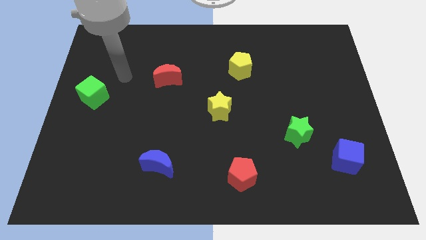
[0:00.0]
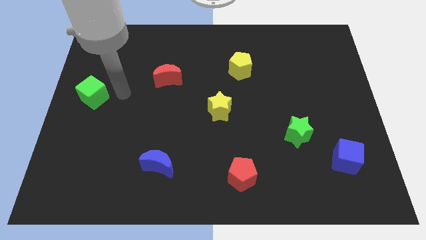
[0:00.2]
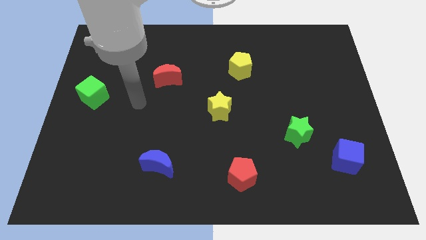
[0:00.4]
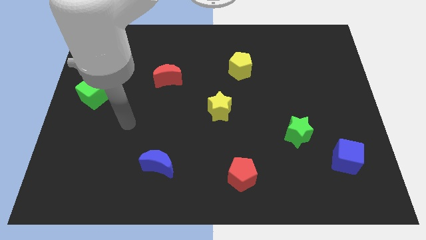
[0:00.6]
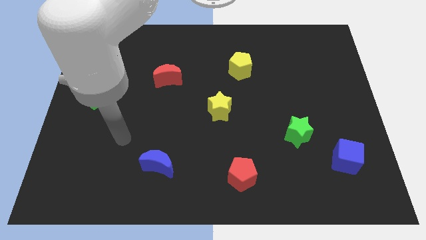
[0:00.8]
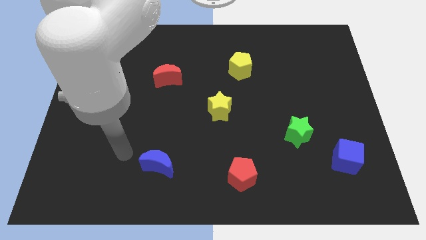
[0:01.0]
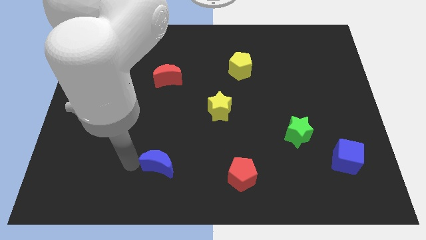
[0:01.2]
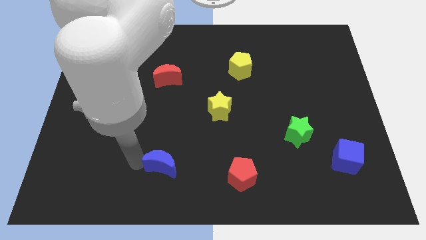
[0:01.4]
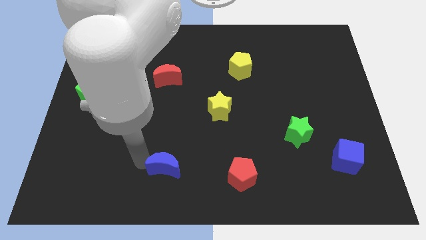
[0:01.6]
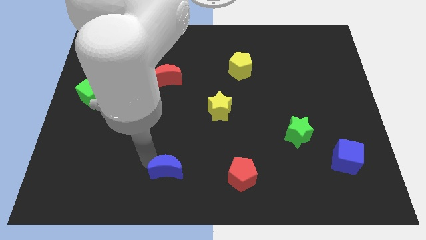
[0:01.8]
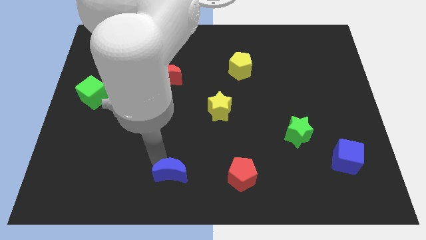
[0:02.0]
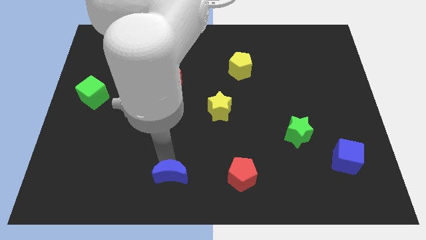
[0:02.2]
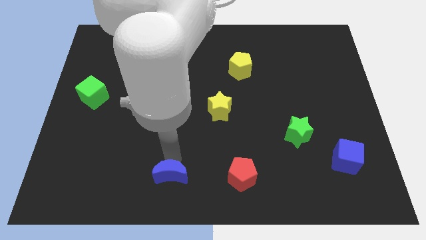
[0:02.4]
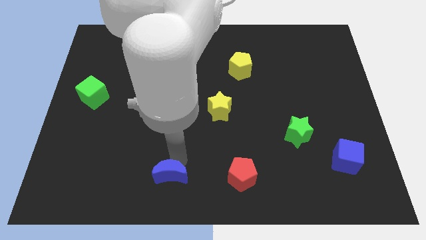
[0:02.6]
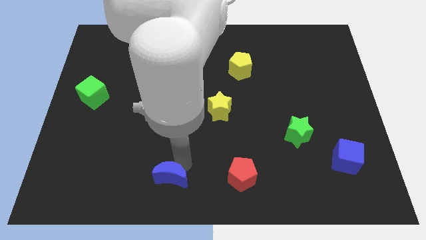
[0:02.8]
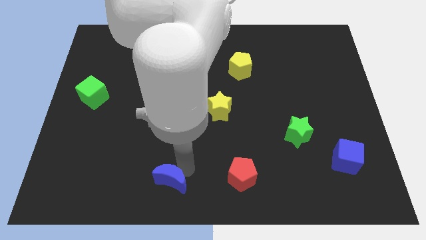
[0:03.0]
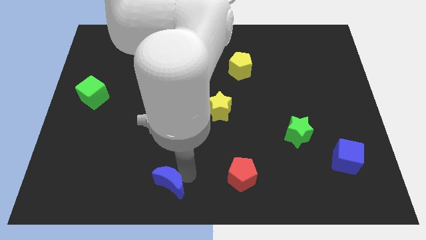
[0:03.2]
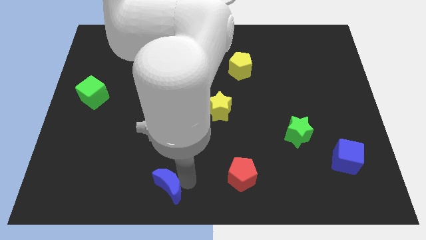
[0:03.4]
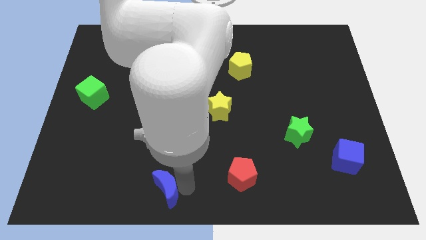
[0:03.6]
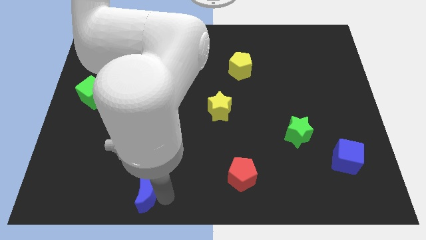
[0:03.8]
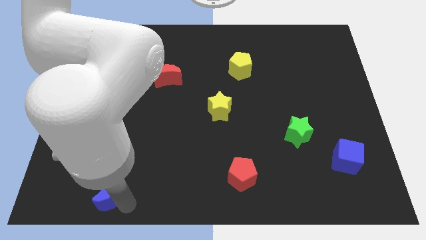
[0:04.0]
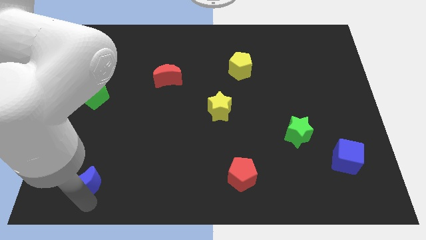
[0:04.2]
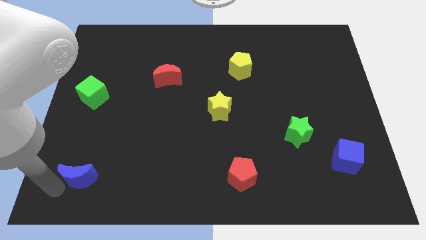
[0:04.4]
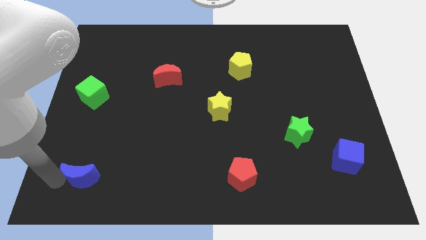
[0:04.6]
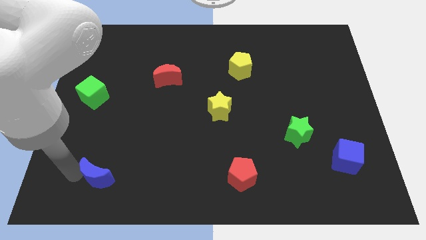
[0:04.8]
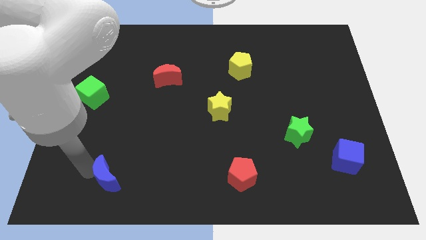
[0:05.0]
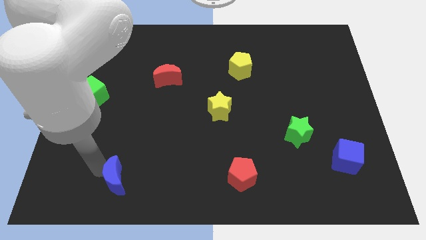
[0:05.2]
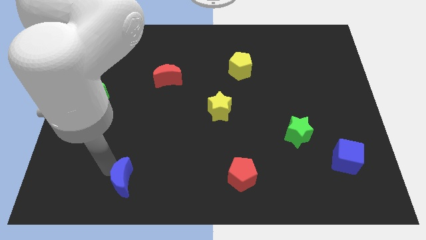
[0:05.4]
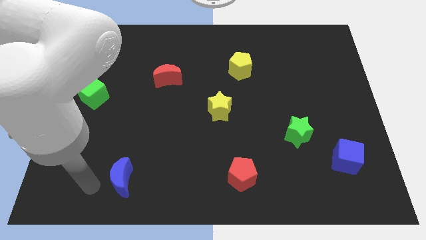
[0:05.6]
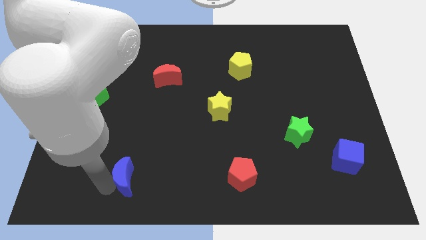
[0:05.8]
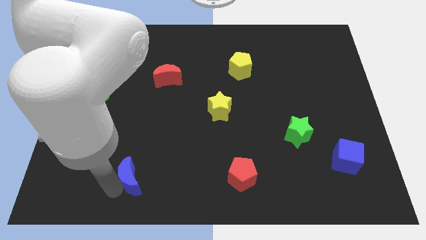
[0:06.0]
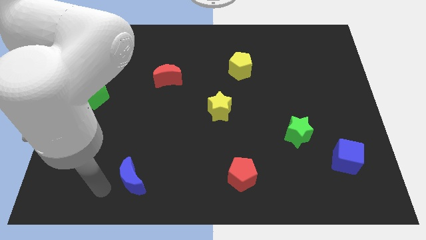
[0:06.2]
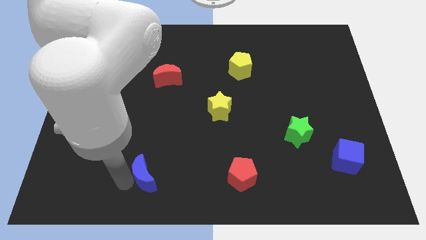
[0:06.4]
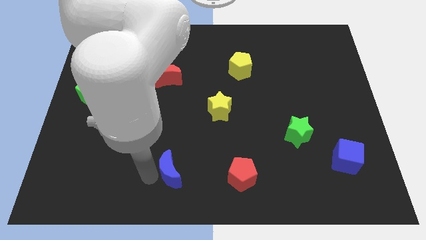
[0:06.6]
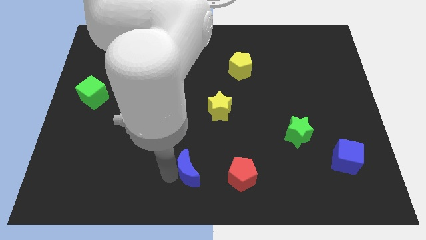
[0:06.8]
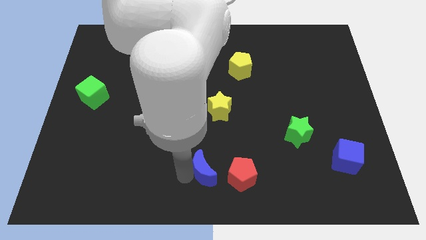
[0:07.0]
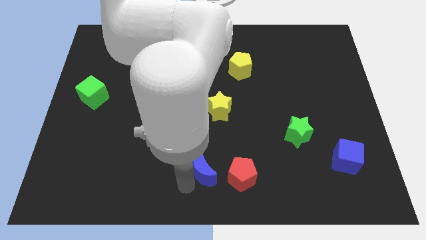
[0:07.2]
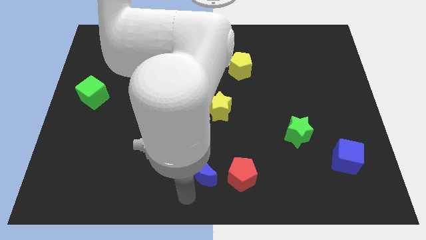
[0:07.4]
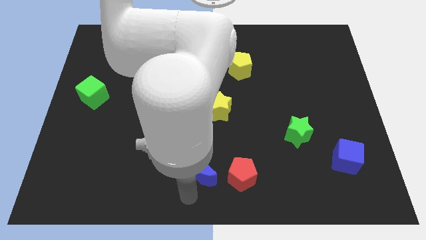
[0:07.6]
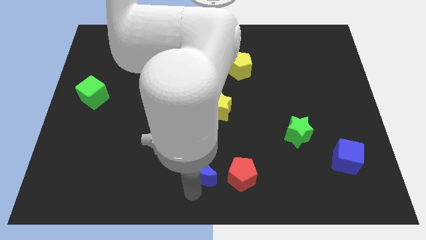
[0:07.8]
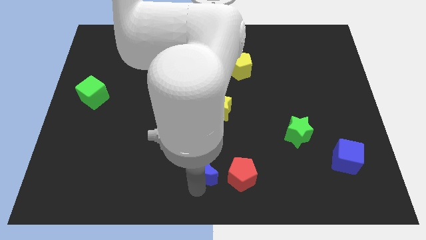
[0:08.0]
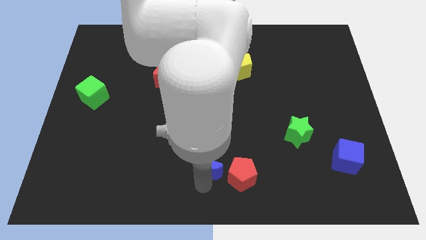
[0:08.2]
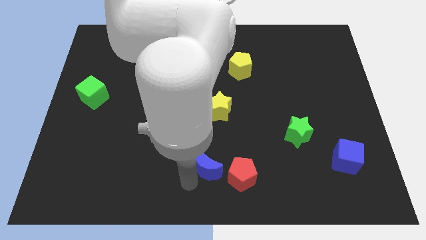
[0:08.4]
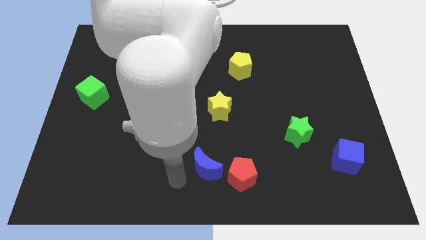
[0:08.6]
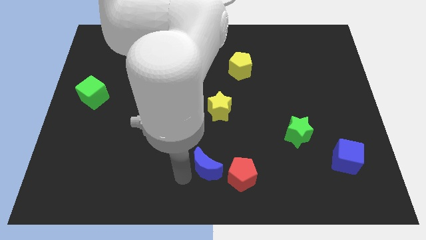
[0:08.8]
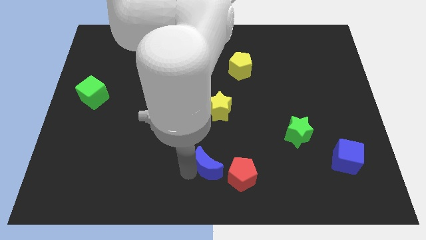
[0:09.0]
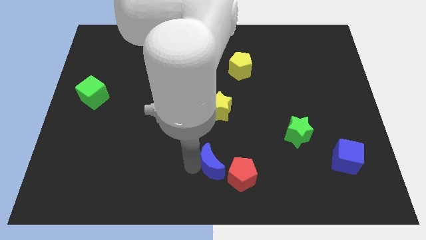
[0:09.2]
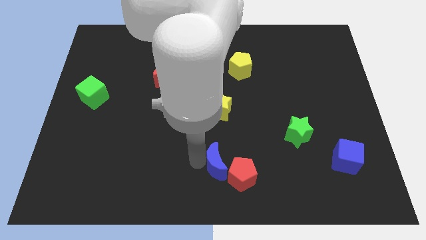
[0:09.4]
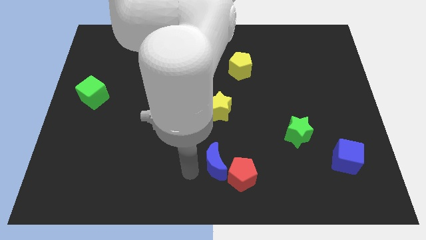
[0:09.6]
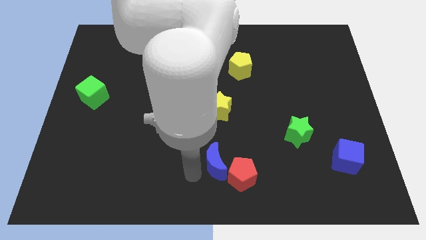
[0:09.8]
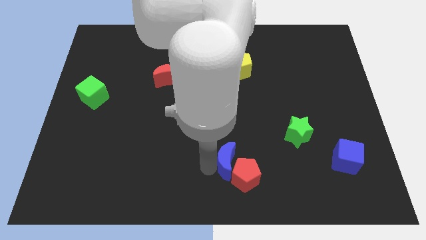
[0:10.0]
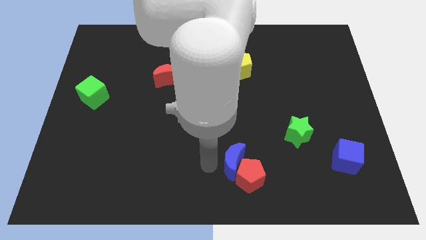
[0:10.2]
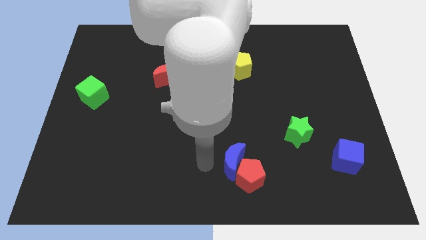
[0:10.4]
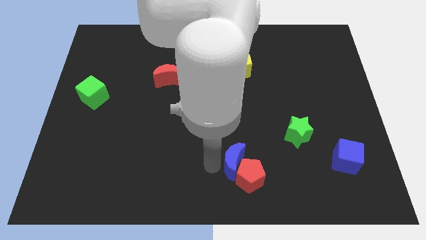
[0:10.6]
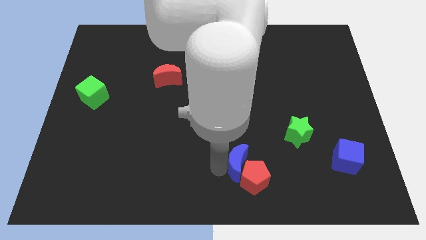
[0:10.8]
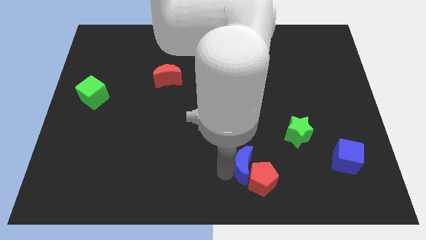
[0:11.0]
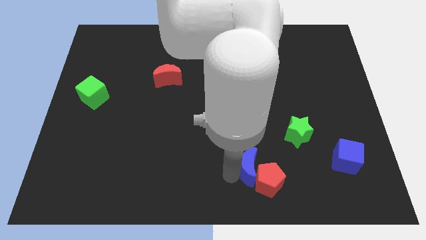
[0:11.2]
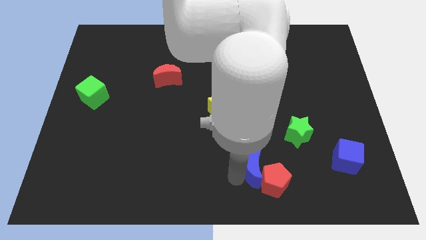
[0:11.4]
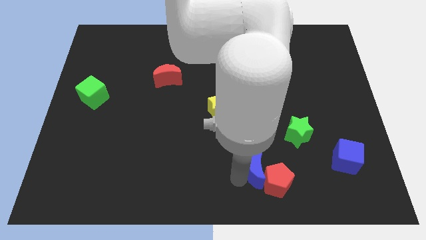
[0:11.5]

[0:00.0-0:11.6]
push the blue moon right

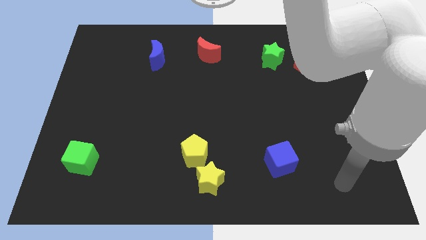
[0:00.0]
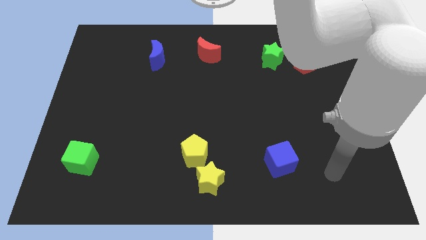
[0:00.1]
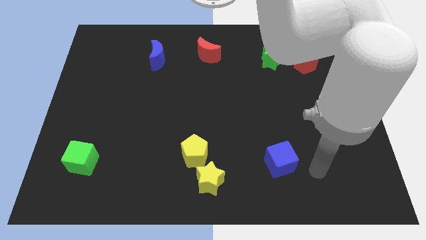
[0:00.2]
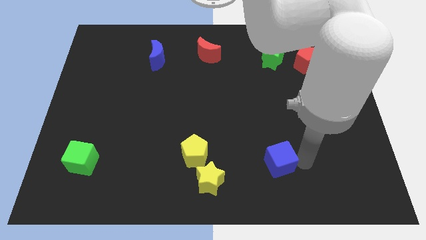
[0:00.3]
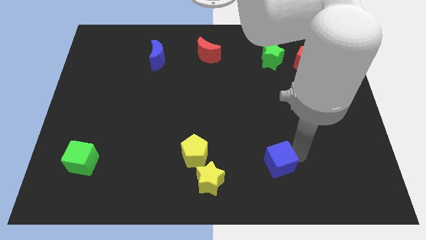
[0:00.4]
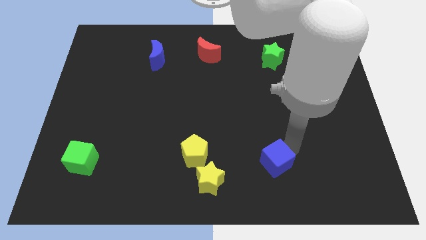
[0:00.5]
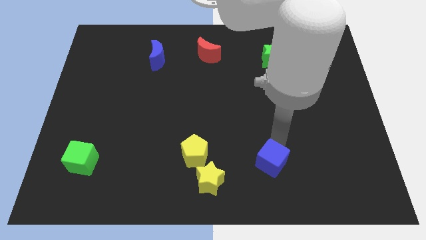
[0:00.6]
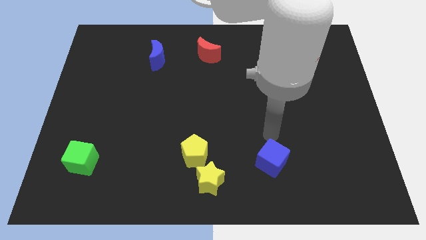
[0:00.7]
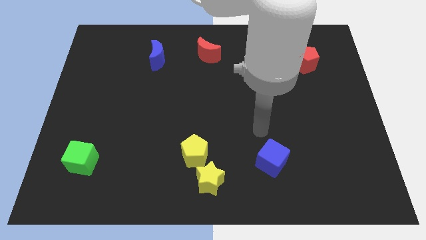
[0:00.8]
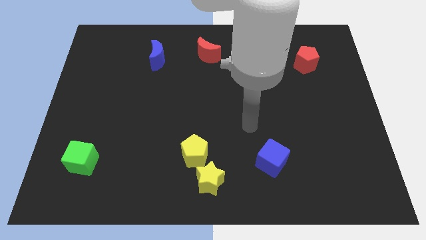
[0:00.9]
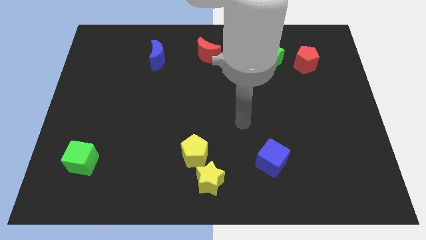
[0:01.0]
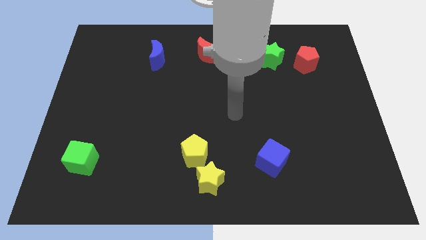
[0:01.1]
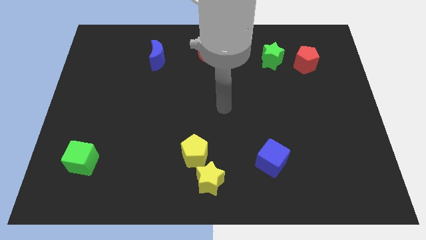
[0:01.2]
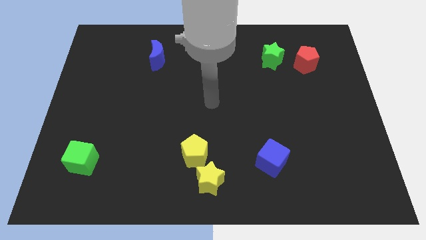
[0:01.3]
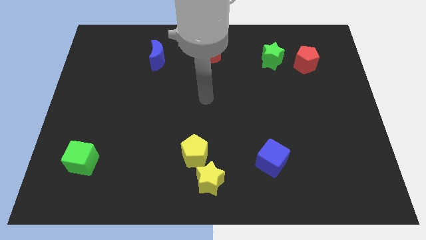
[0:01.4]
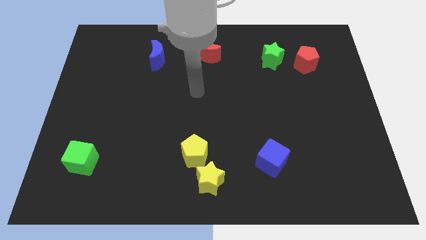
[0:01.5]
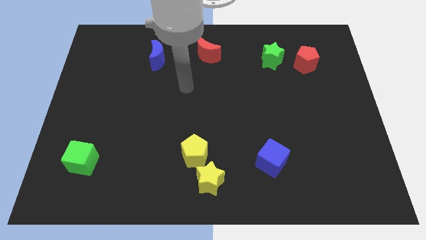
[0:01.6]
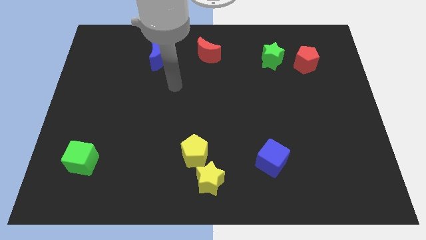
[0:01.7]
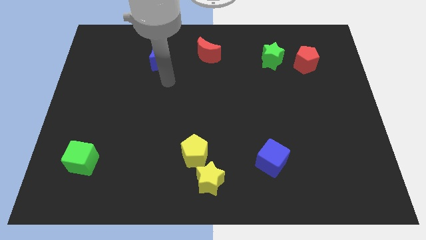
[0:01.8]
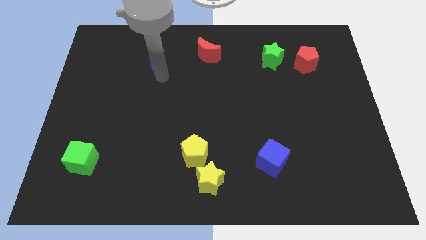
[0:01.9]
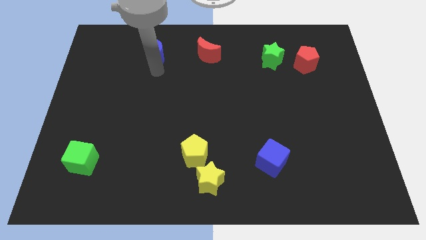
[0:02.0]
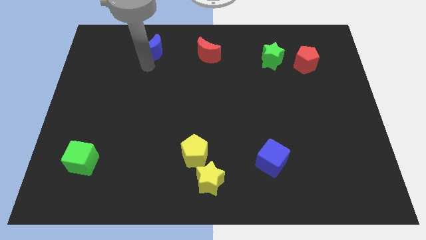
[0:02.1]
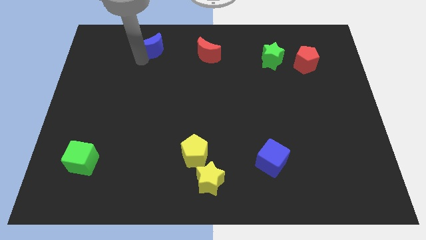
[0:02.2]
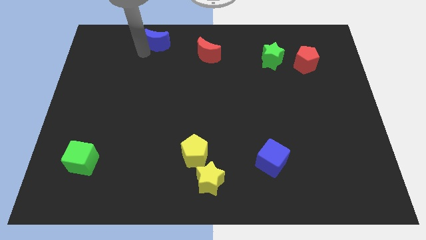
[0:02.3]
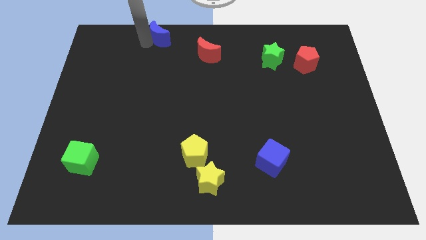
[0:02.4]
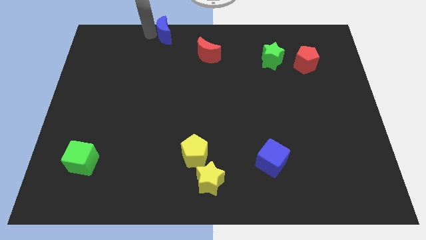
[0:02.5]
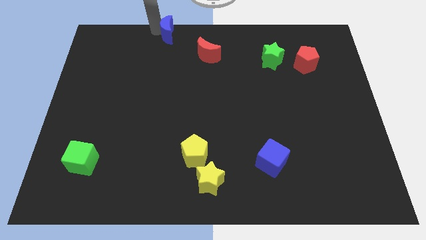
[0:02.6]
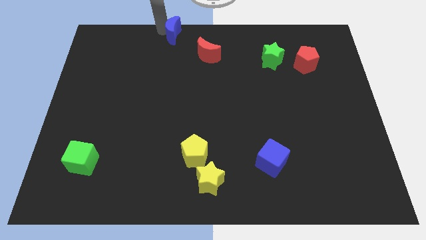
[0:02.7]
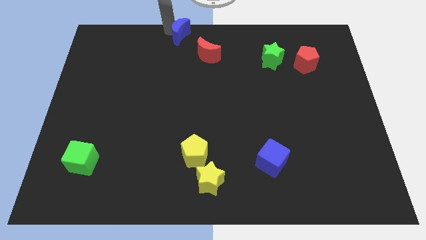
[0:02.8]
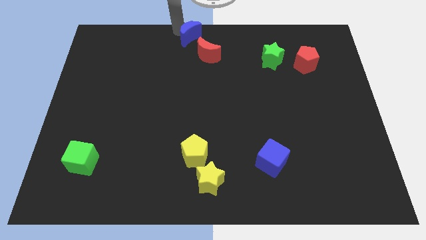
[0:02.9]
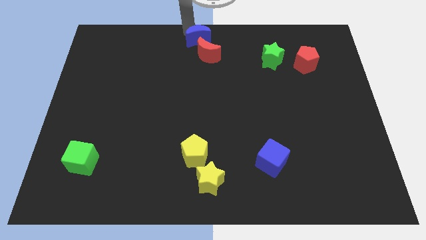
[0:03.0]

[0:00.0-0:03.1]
move the blue moon right a bit
